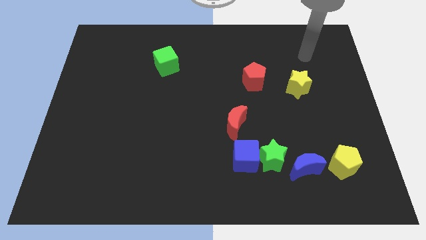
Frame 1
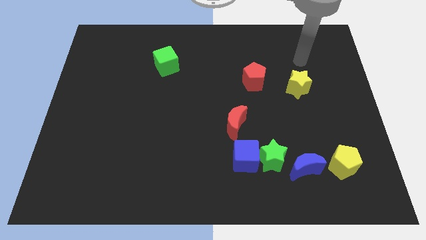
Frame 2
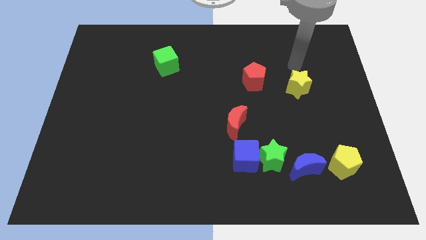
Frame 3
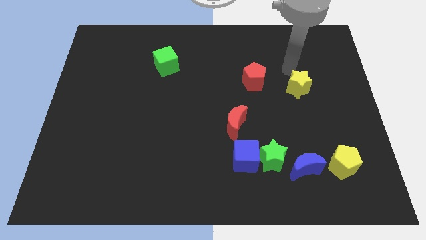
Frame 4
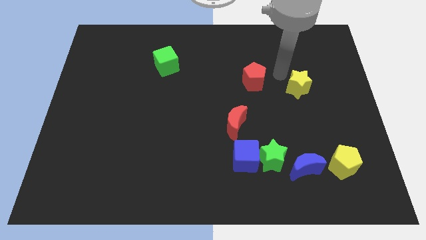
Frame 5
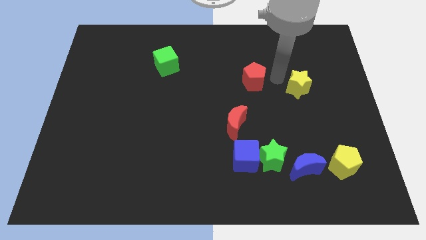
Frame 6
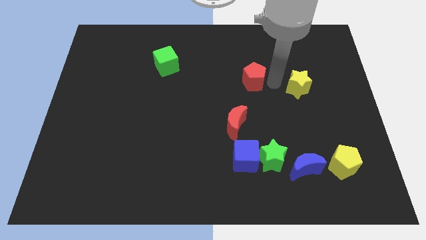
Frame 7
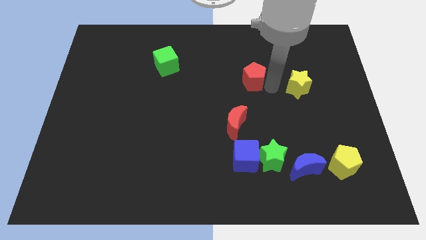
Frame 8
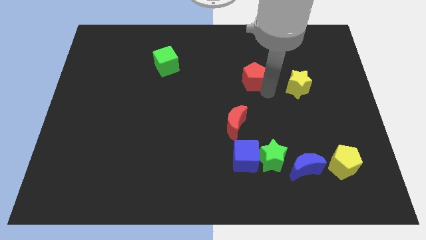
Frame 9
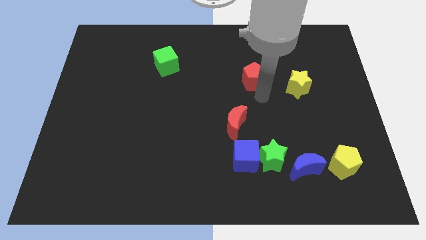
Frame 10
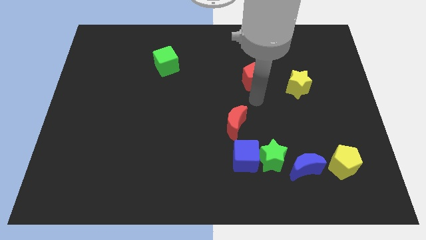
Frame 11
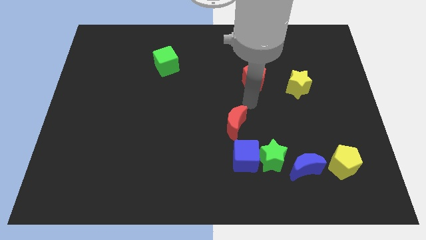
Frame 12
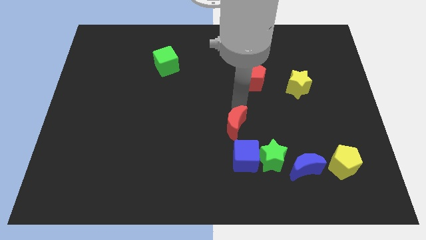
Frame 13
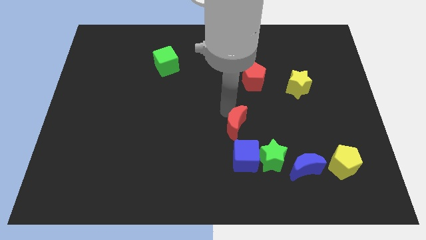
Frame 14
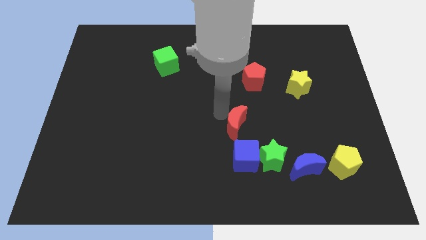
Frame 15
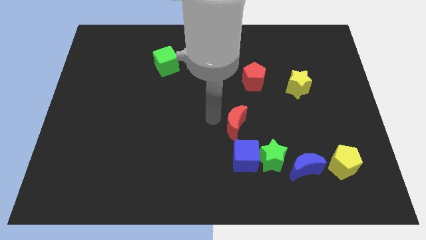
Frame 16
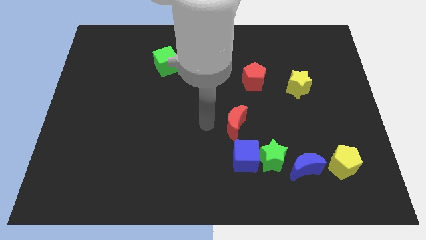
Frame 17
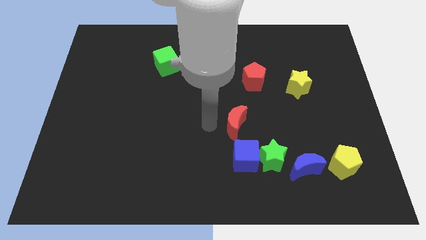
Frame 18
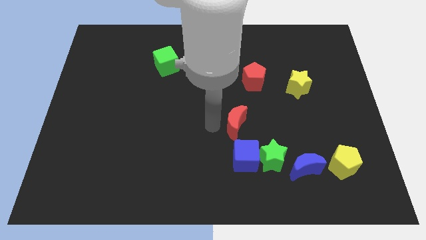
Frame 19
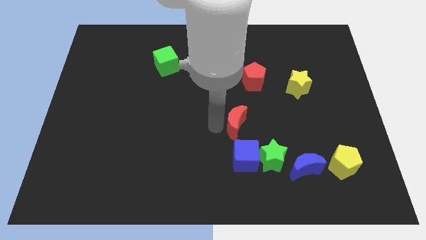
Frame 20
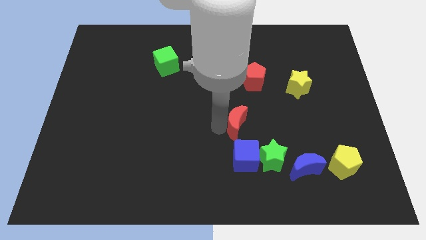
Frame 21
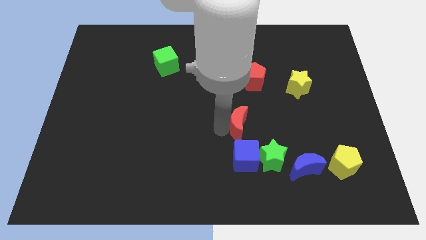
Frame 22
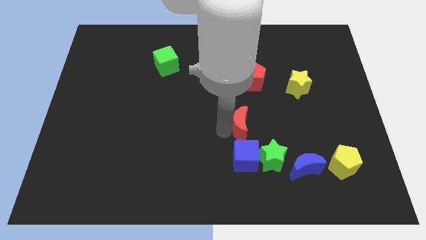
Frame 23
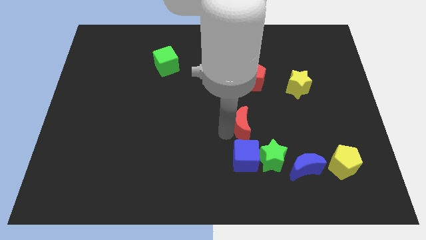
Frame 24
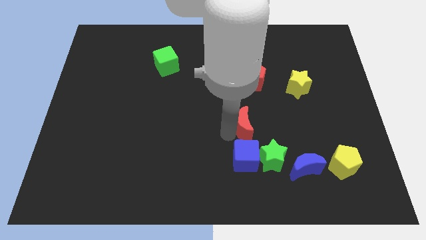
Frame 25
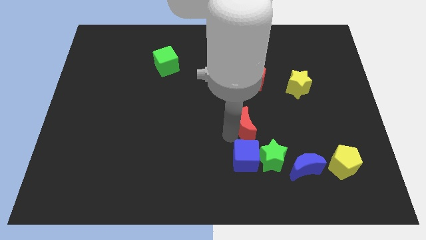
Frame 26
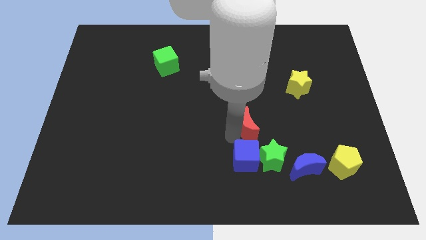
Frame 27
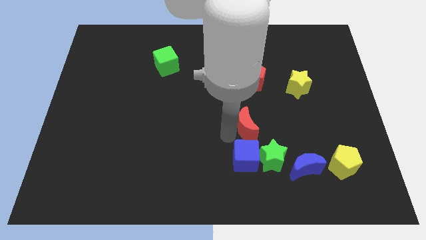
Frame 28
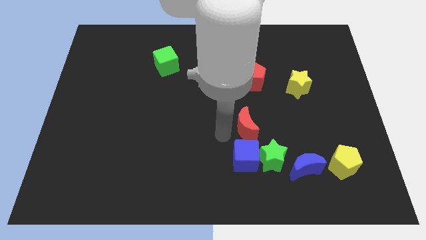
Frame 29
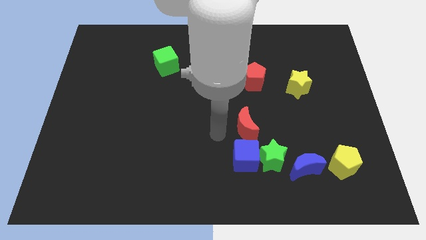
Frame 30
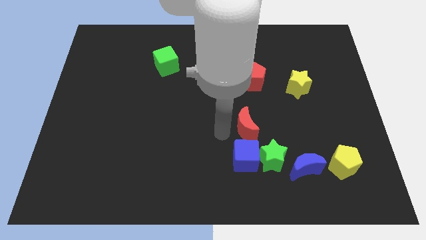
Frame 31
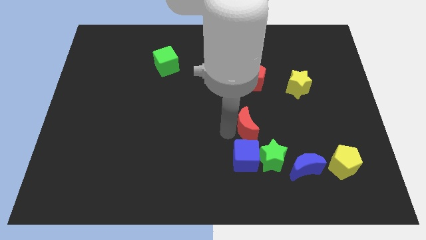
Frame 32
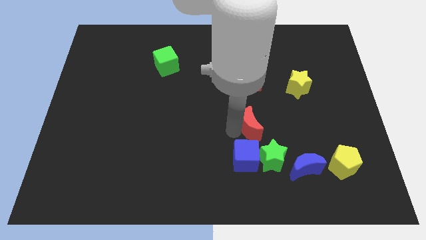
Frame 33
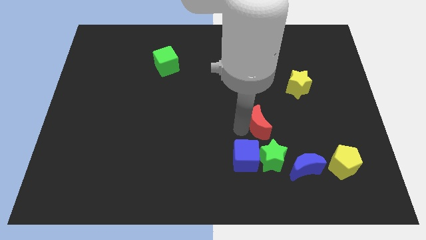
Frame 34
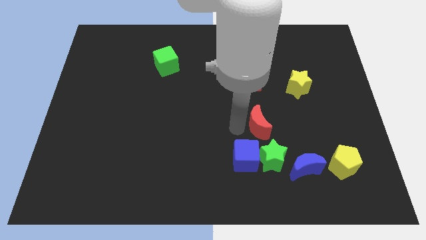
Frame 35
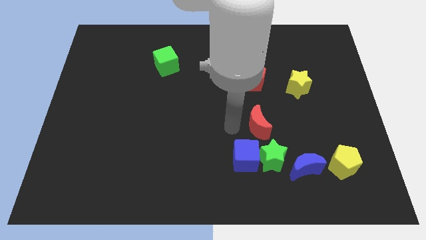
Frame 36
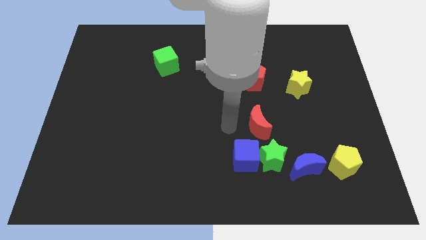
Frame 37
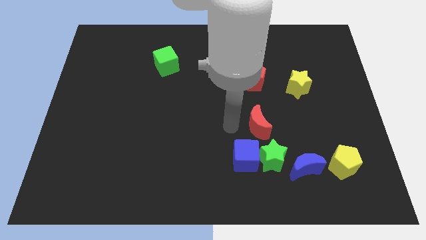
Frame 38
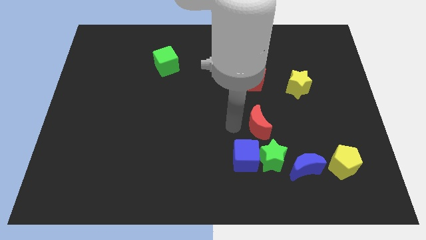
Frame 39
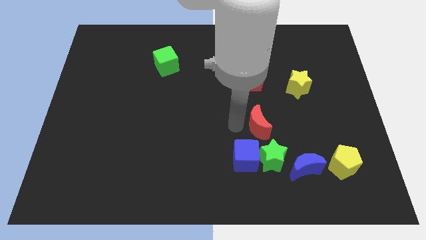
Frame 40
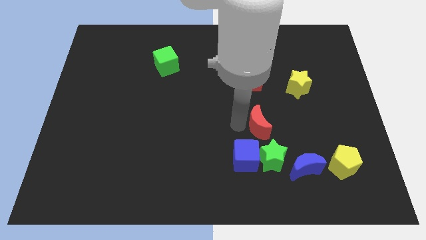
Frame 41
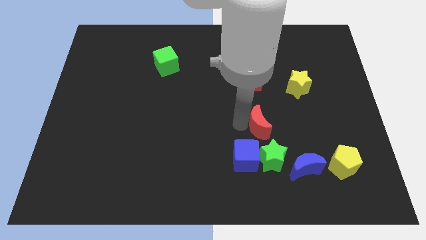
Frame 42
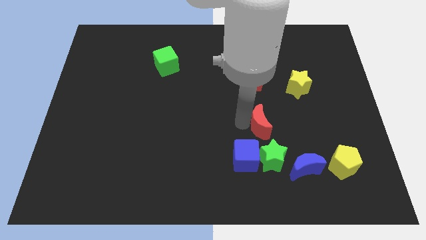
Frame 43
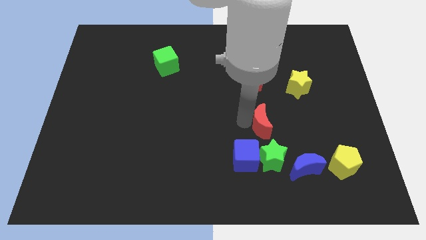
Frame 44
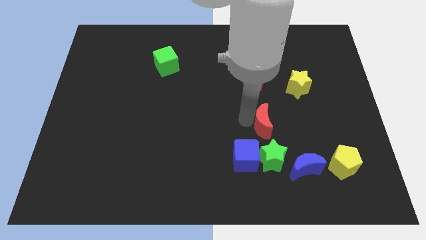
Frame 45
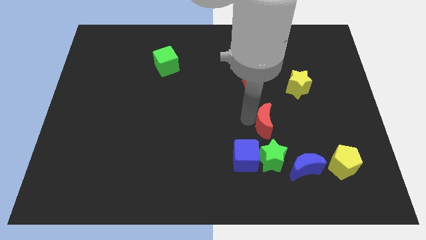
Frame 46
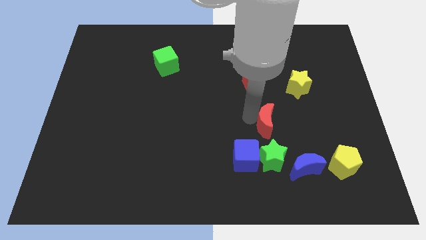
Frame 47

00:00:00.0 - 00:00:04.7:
move the red moon somewhat to the right

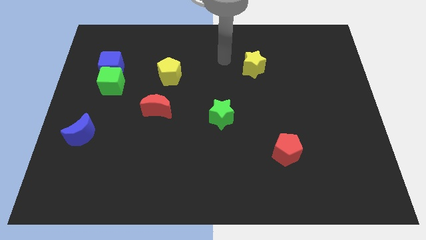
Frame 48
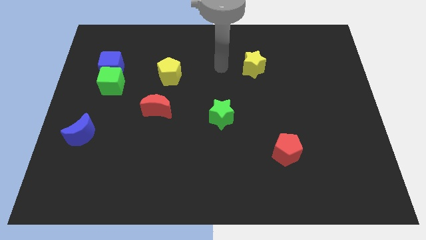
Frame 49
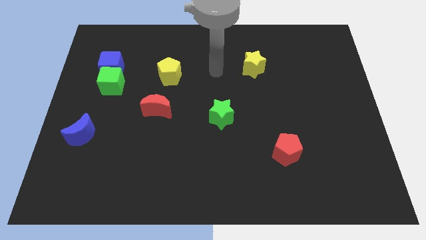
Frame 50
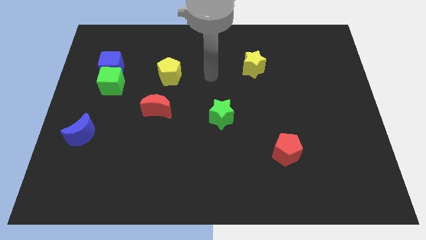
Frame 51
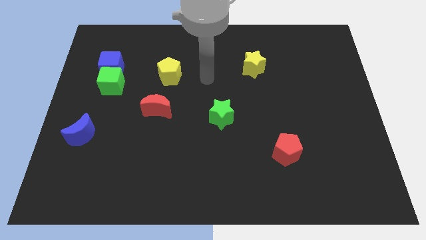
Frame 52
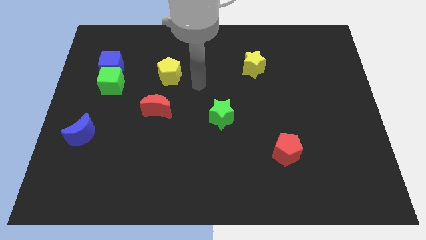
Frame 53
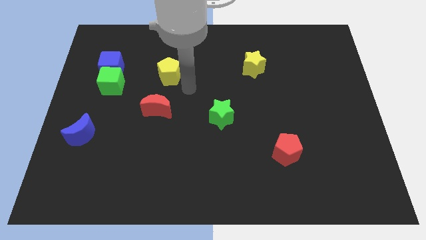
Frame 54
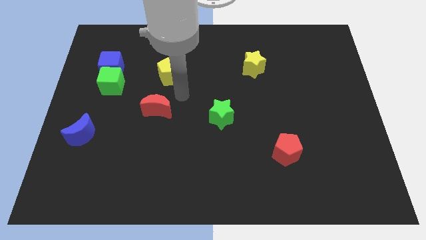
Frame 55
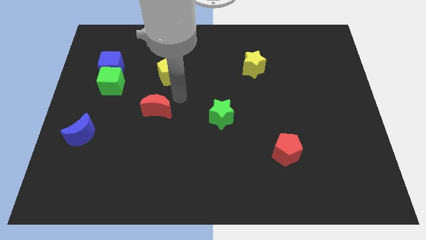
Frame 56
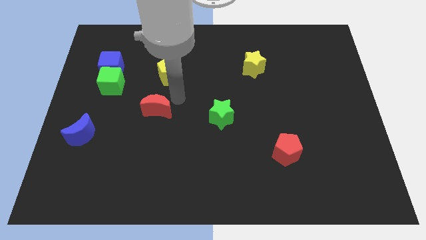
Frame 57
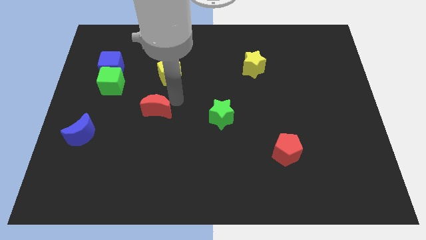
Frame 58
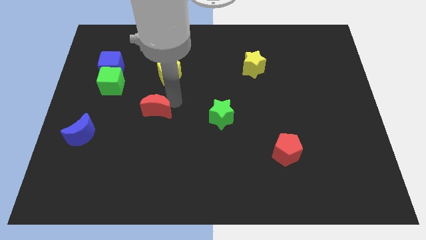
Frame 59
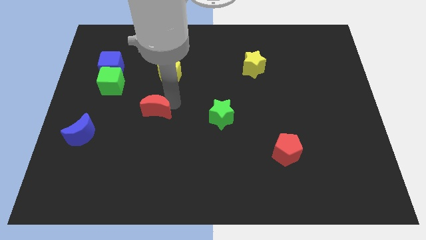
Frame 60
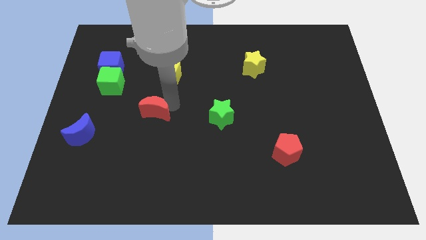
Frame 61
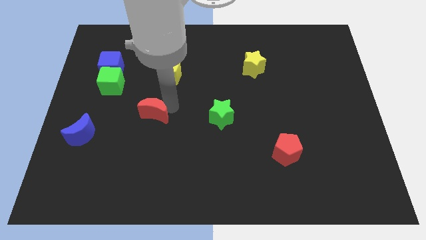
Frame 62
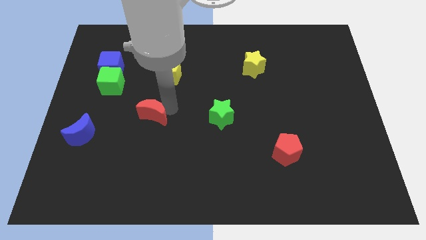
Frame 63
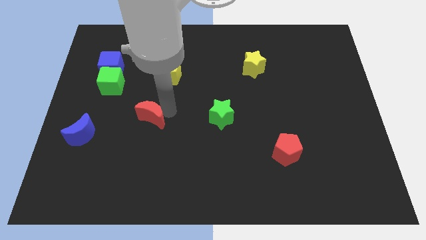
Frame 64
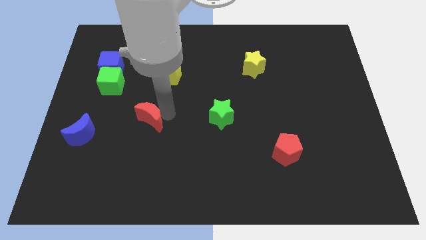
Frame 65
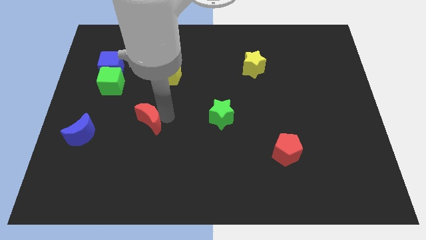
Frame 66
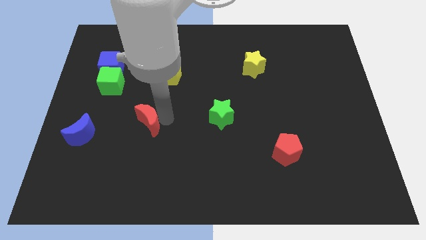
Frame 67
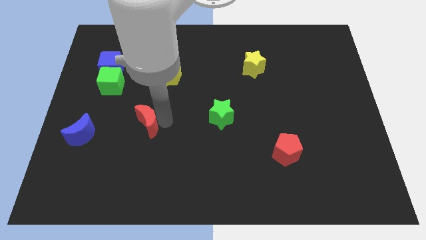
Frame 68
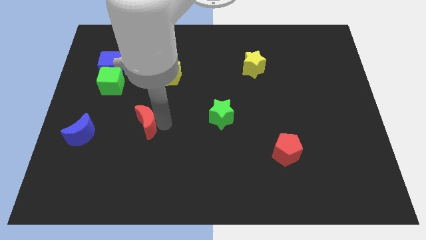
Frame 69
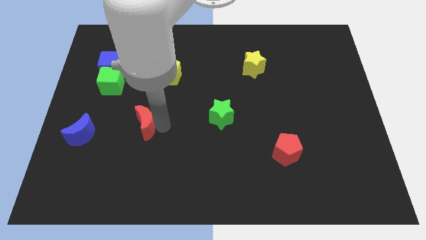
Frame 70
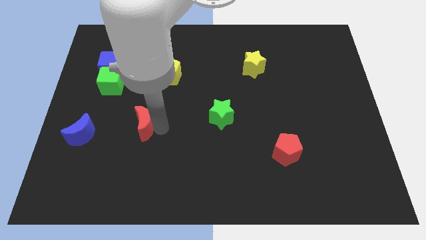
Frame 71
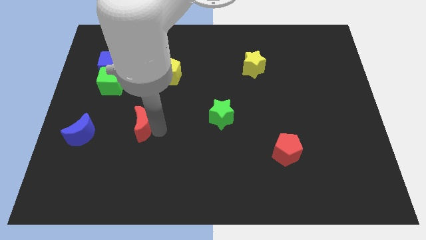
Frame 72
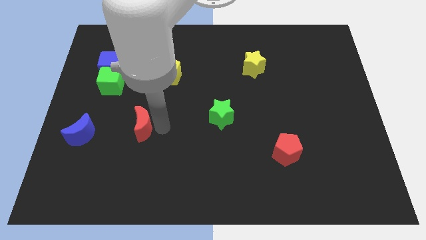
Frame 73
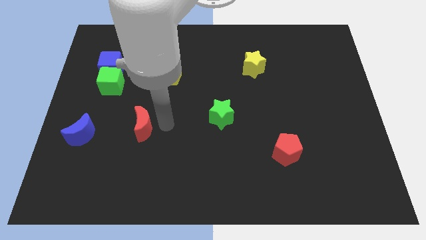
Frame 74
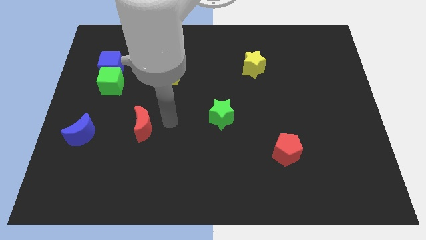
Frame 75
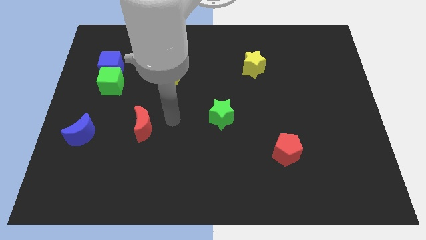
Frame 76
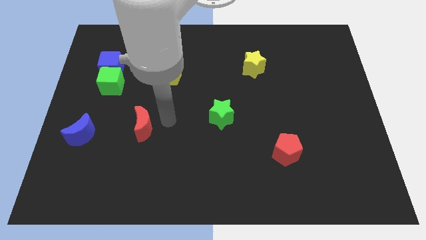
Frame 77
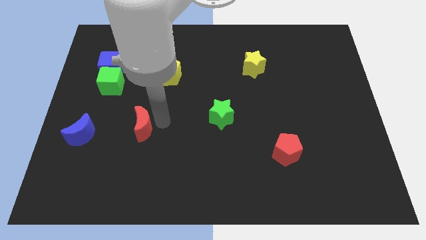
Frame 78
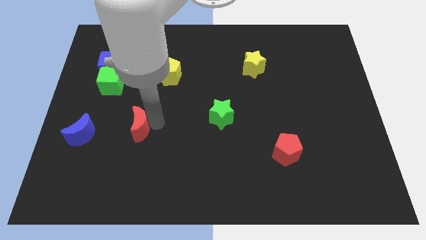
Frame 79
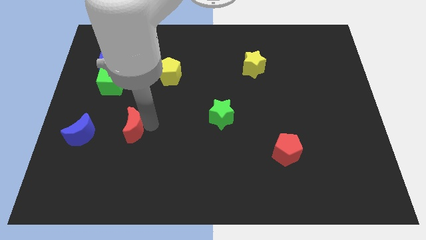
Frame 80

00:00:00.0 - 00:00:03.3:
slightly push the red moon downwards and then left
